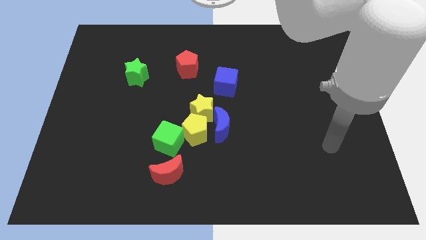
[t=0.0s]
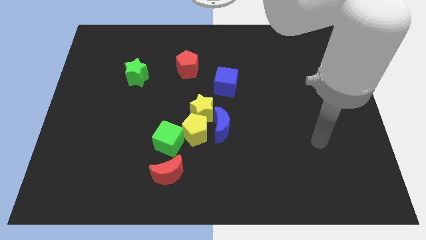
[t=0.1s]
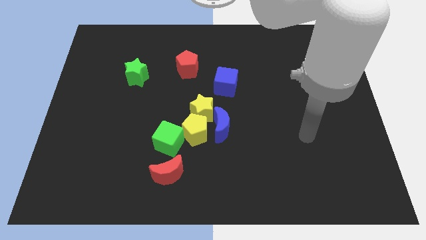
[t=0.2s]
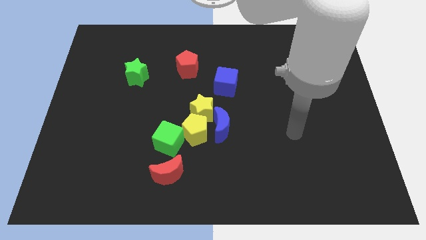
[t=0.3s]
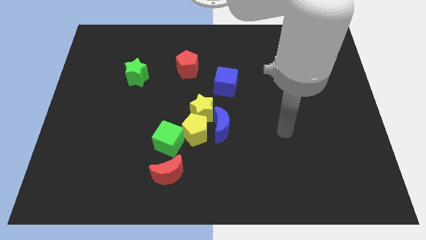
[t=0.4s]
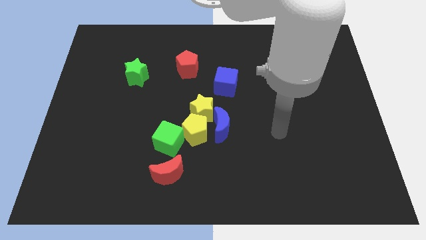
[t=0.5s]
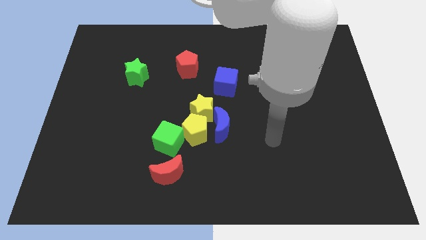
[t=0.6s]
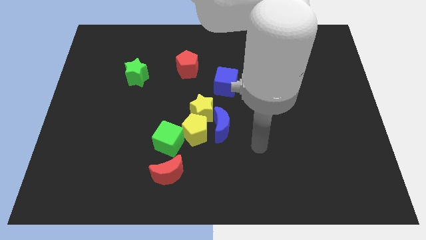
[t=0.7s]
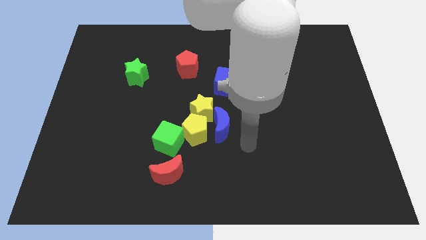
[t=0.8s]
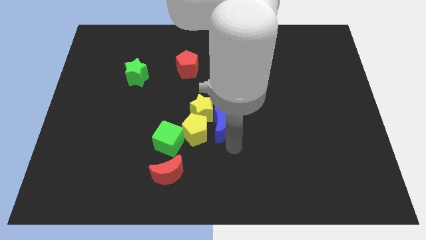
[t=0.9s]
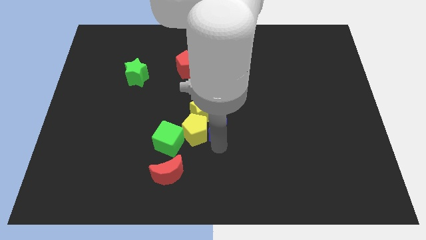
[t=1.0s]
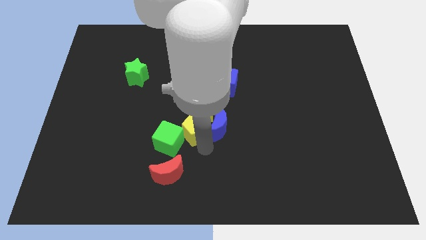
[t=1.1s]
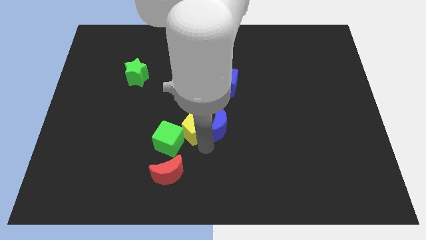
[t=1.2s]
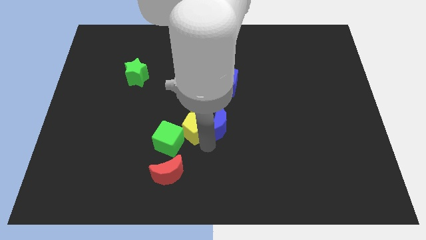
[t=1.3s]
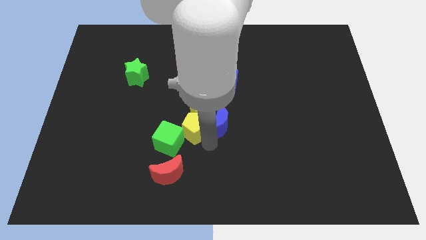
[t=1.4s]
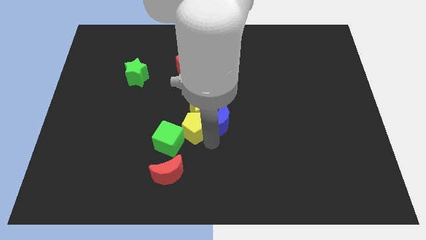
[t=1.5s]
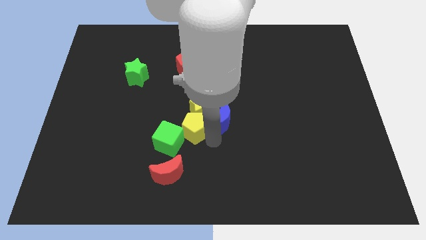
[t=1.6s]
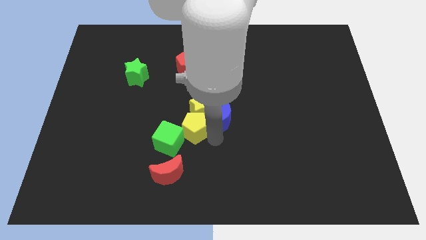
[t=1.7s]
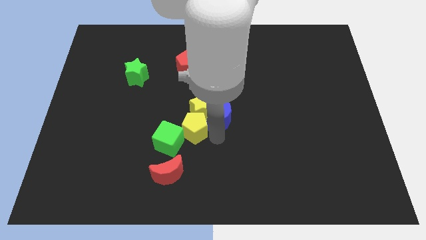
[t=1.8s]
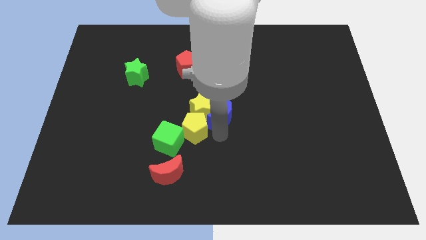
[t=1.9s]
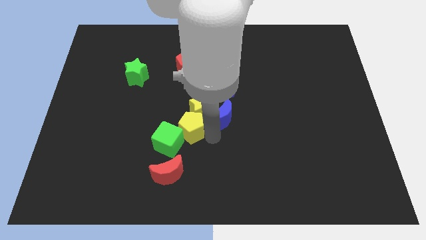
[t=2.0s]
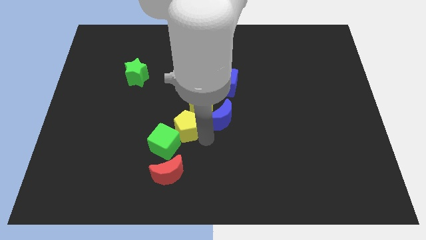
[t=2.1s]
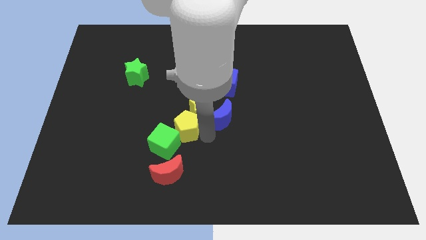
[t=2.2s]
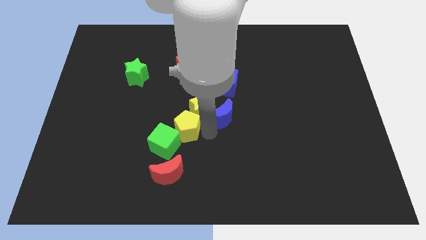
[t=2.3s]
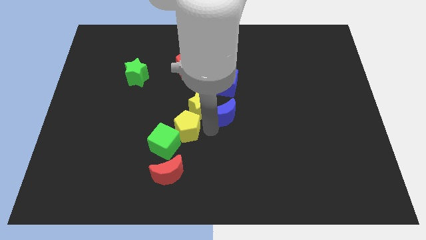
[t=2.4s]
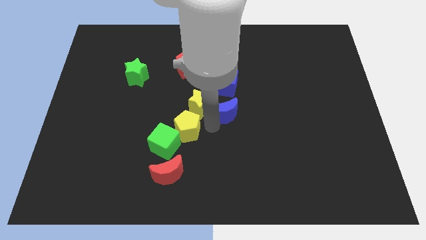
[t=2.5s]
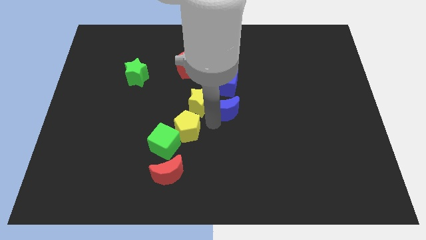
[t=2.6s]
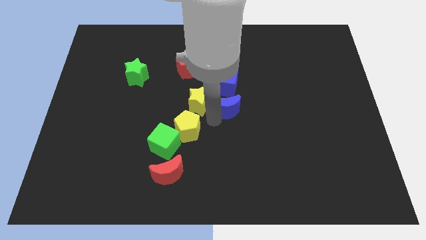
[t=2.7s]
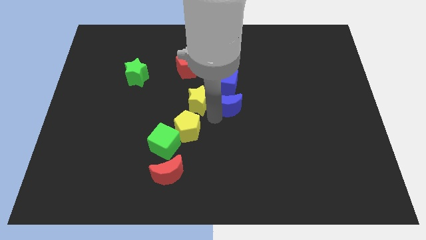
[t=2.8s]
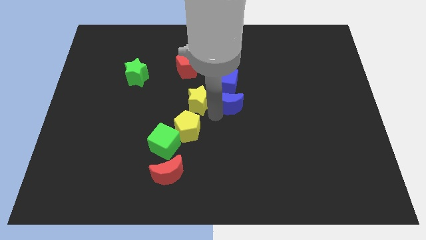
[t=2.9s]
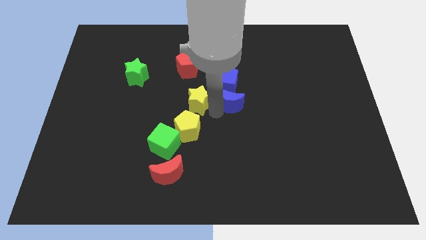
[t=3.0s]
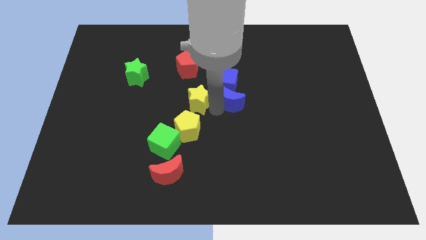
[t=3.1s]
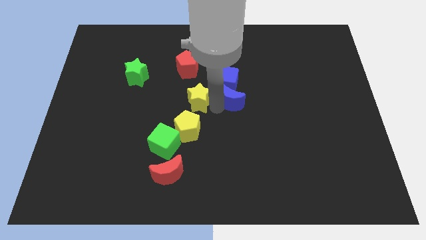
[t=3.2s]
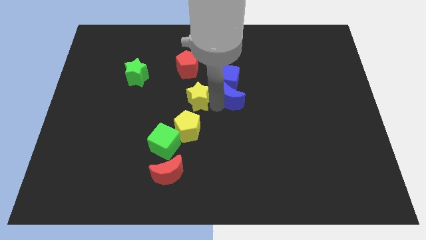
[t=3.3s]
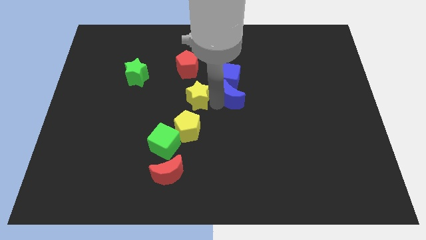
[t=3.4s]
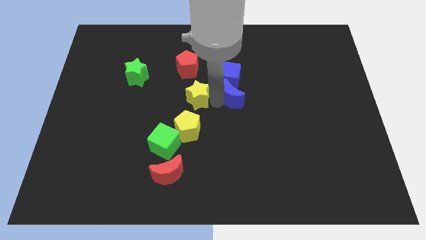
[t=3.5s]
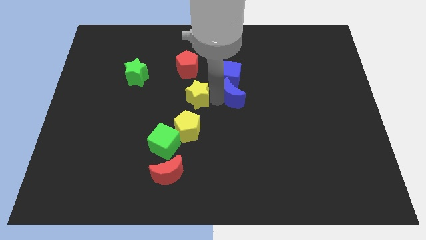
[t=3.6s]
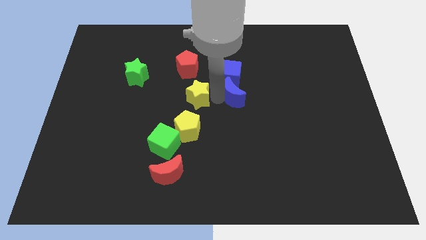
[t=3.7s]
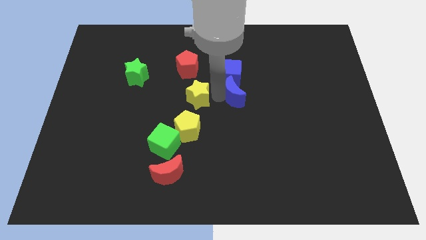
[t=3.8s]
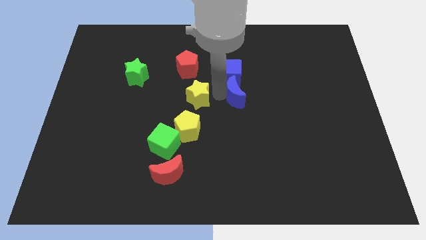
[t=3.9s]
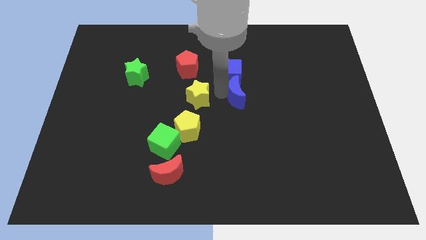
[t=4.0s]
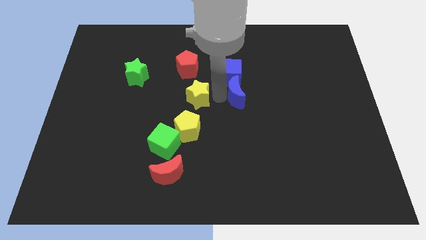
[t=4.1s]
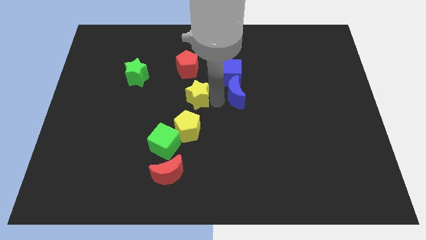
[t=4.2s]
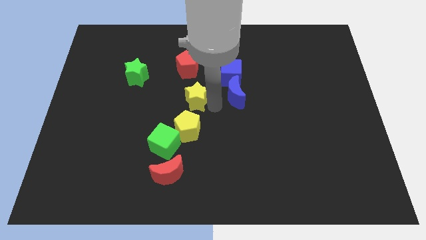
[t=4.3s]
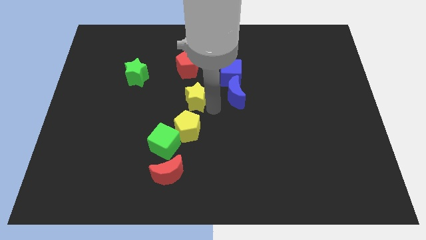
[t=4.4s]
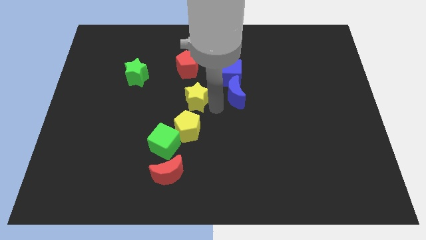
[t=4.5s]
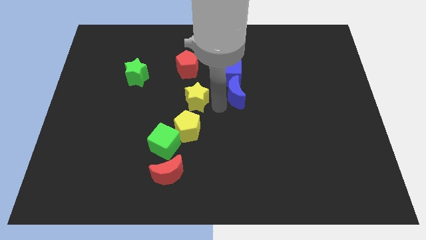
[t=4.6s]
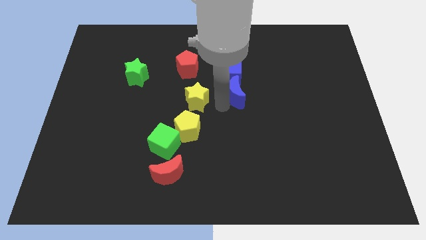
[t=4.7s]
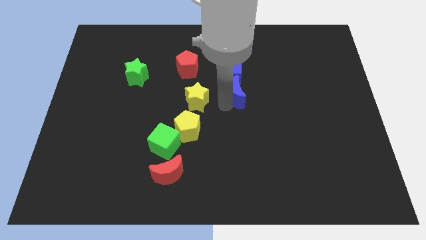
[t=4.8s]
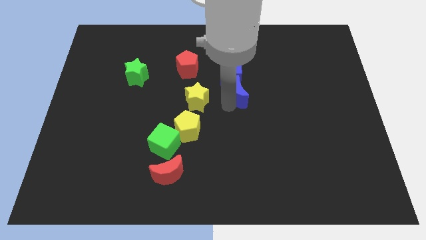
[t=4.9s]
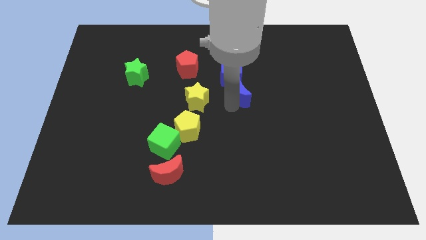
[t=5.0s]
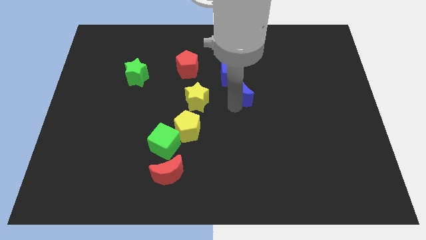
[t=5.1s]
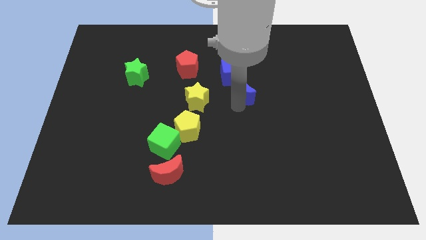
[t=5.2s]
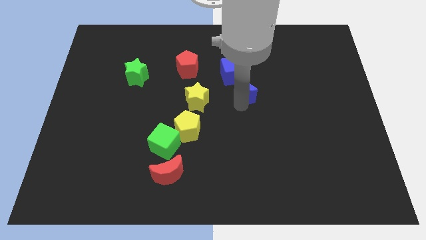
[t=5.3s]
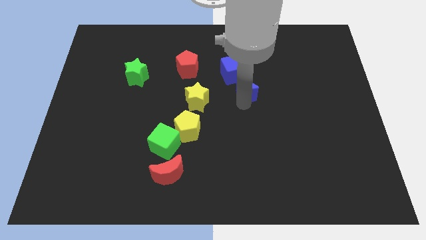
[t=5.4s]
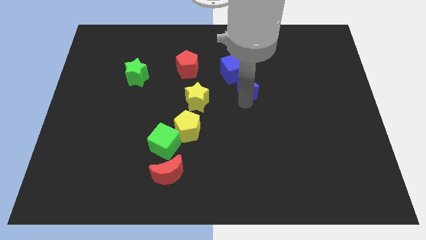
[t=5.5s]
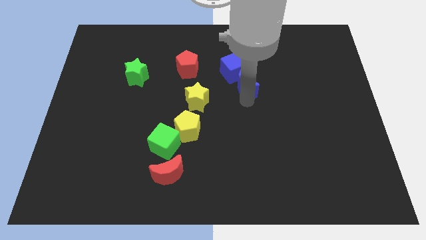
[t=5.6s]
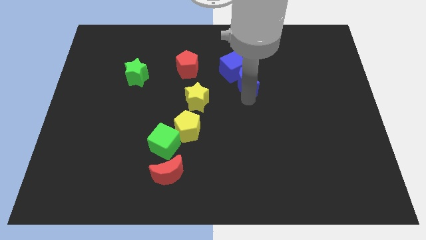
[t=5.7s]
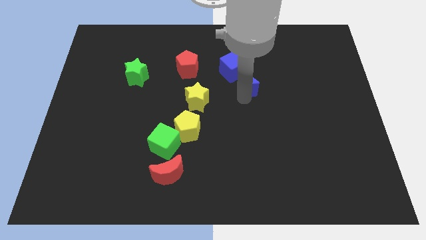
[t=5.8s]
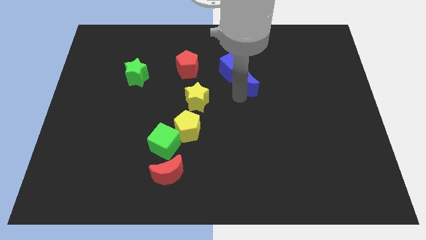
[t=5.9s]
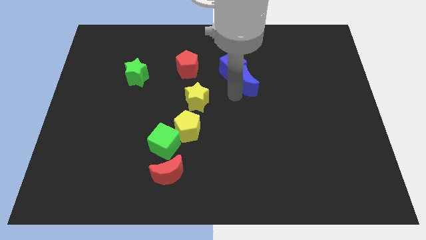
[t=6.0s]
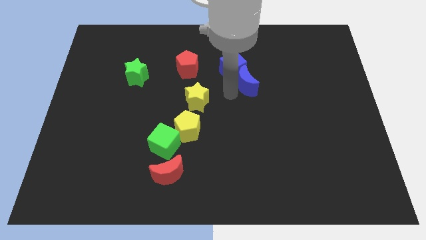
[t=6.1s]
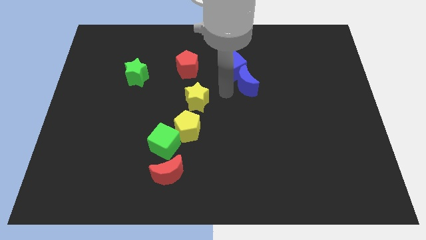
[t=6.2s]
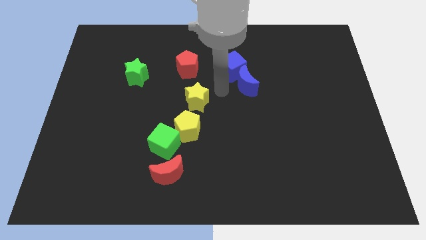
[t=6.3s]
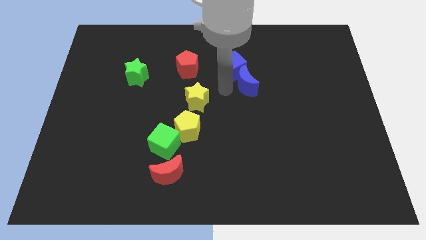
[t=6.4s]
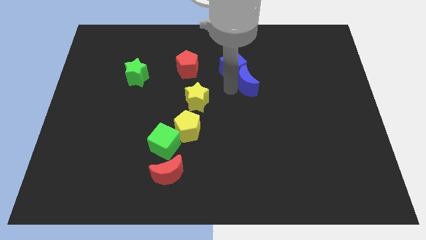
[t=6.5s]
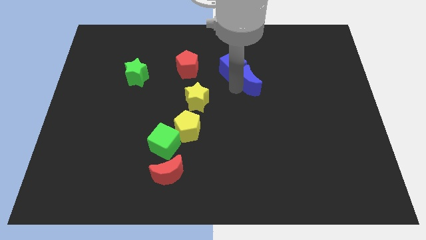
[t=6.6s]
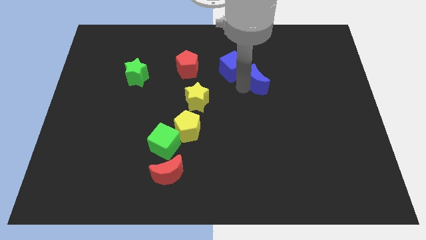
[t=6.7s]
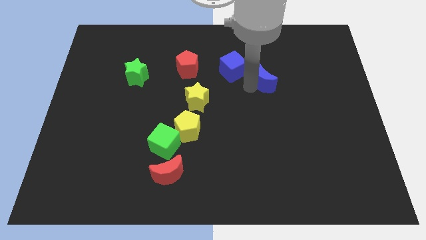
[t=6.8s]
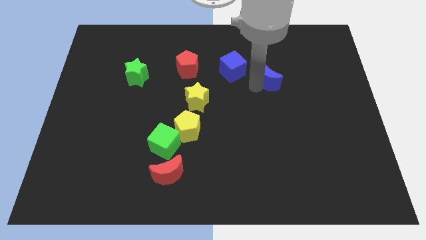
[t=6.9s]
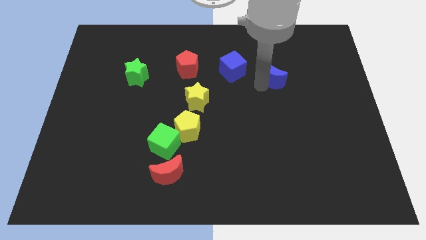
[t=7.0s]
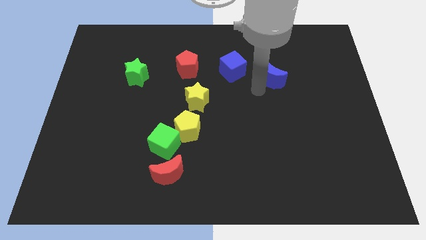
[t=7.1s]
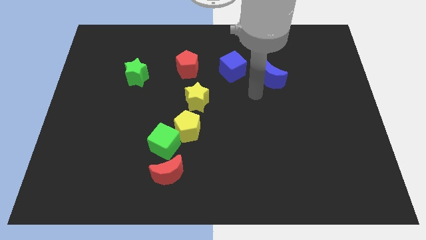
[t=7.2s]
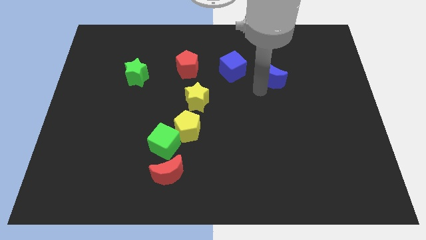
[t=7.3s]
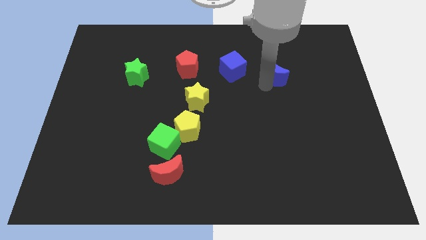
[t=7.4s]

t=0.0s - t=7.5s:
slide the blue moon up and then to the right

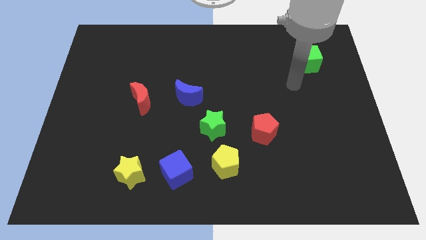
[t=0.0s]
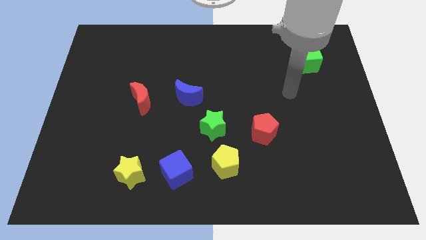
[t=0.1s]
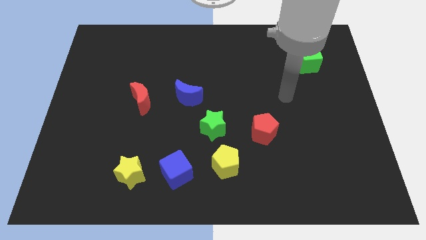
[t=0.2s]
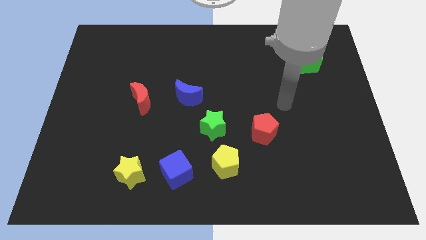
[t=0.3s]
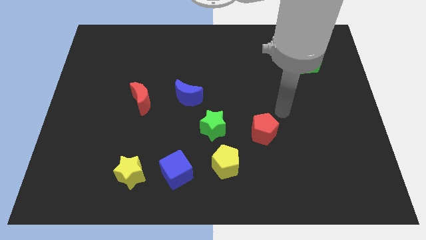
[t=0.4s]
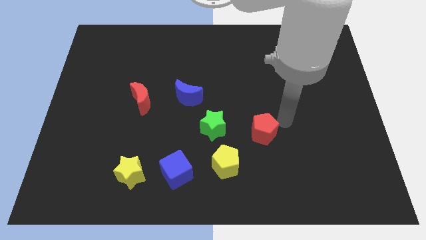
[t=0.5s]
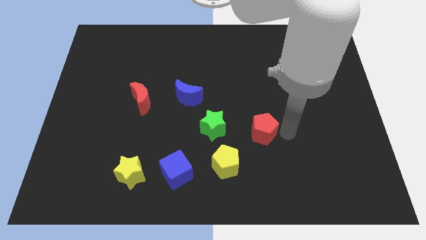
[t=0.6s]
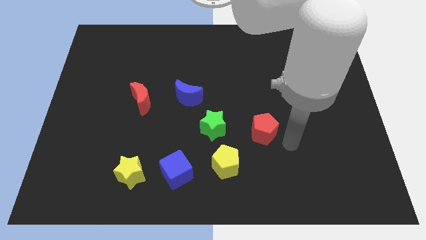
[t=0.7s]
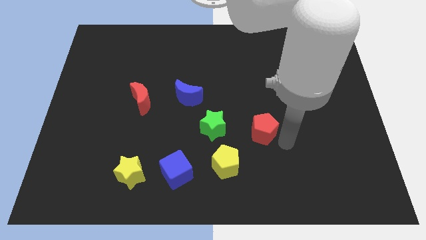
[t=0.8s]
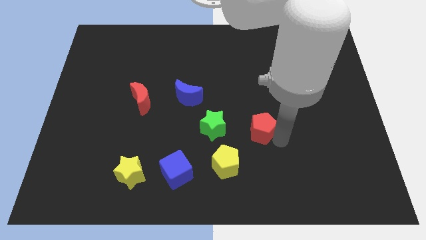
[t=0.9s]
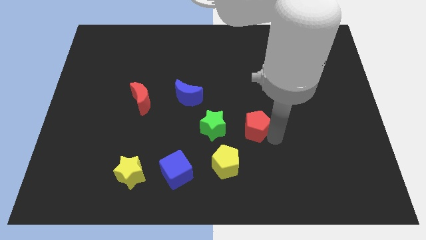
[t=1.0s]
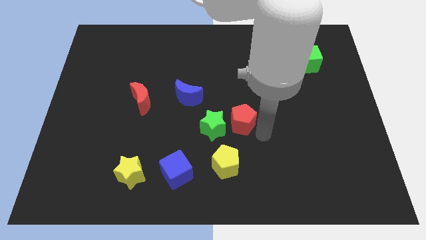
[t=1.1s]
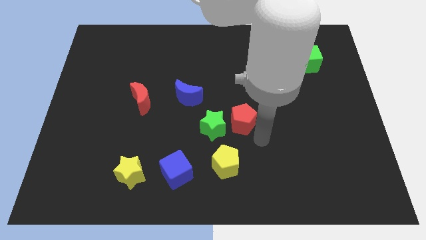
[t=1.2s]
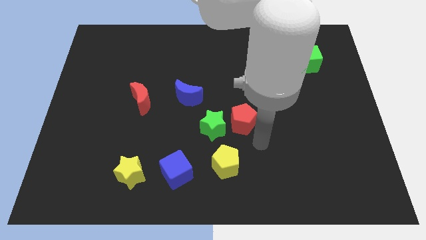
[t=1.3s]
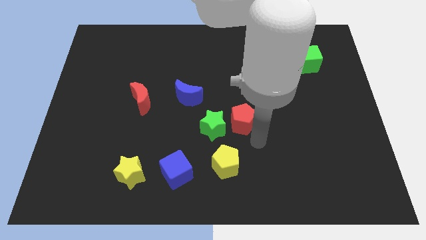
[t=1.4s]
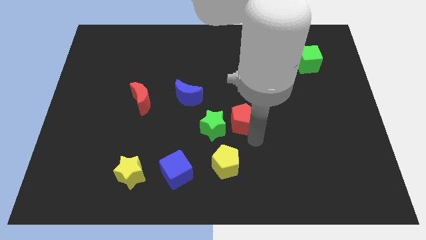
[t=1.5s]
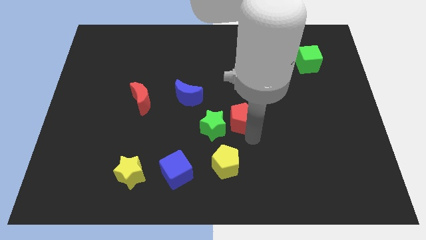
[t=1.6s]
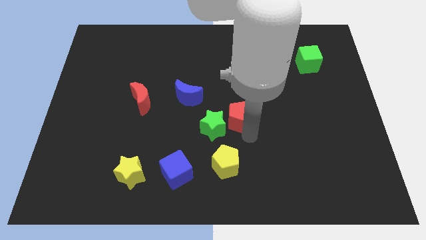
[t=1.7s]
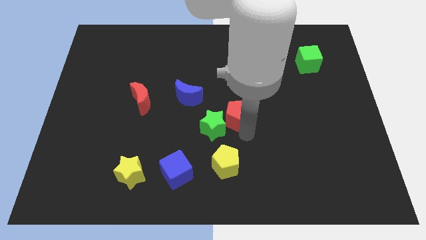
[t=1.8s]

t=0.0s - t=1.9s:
slightly slide the red pentagon diagonally upwards and to the left
